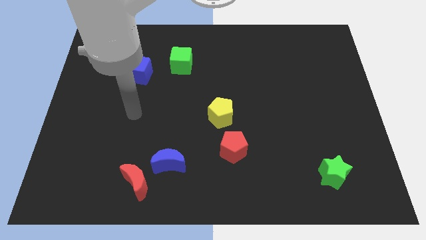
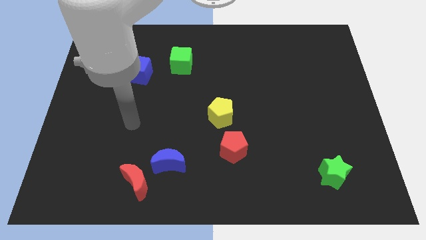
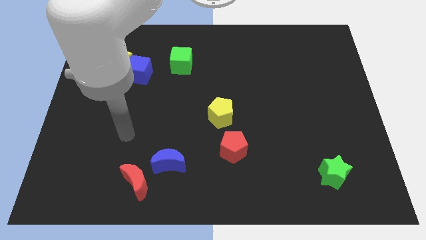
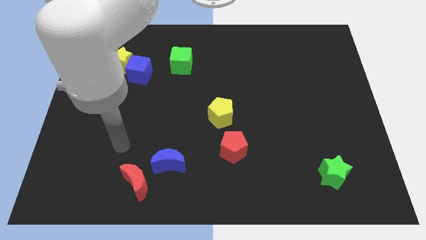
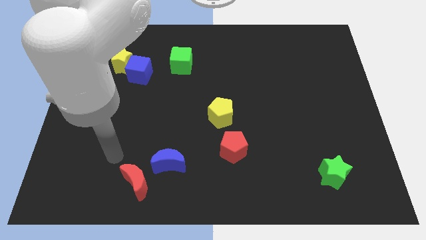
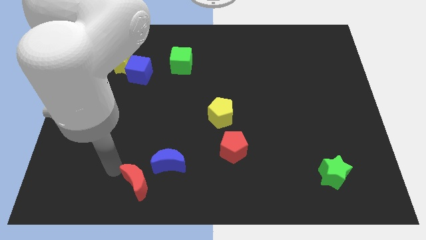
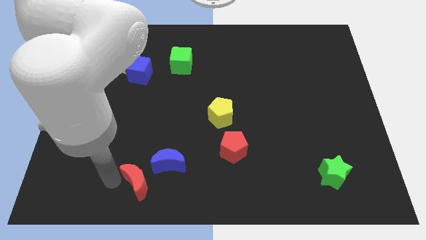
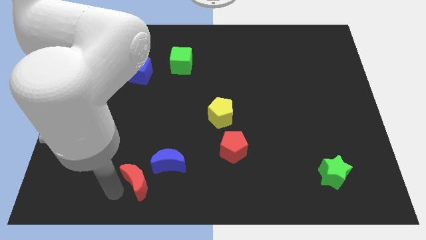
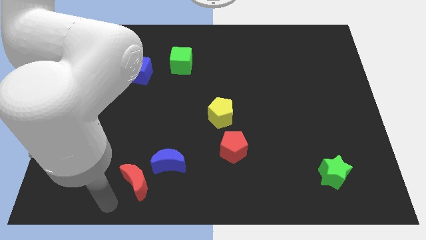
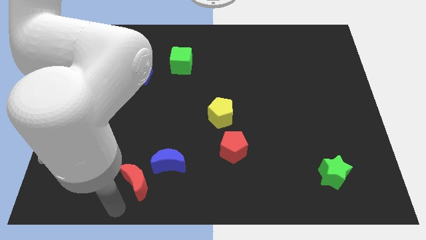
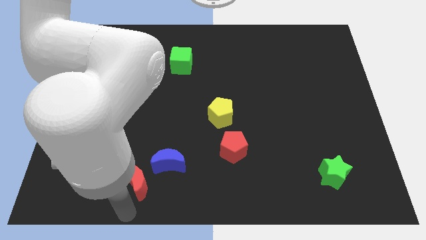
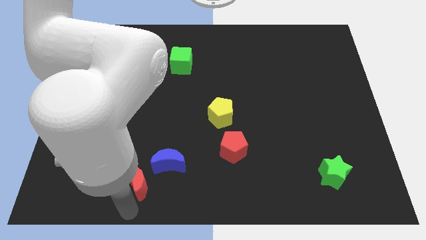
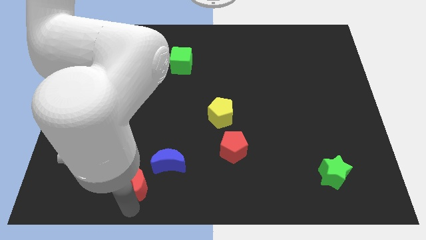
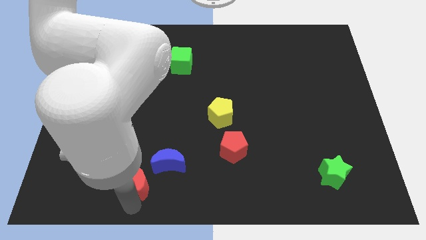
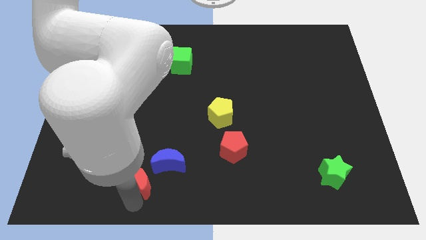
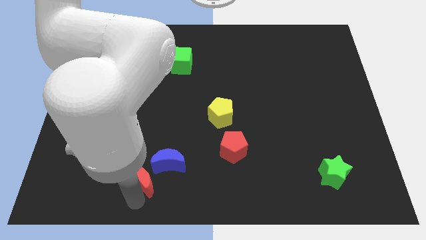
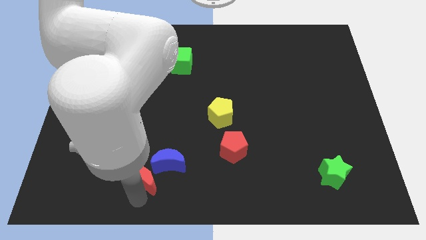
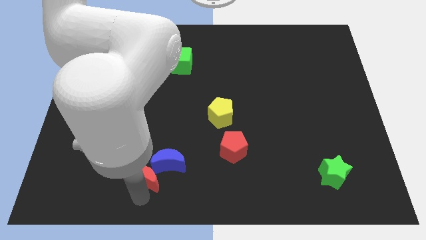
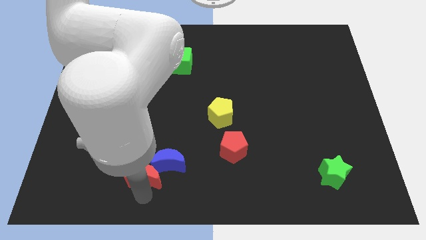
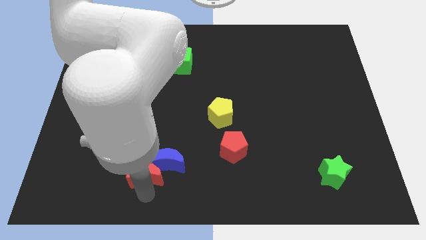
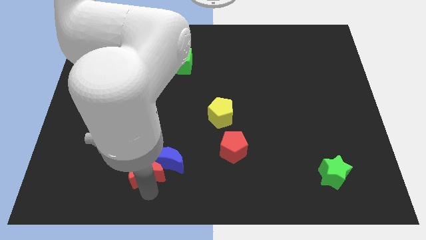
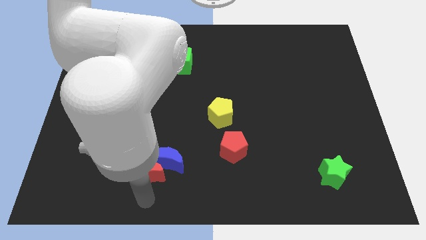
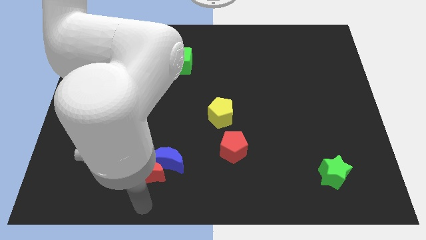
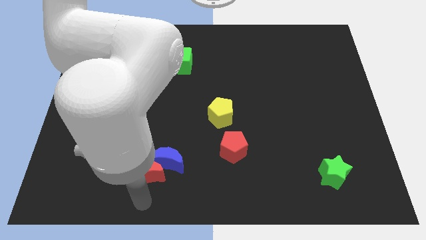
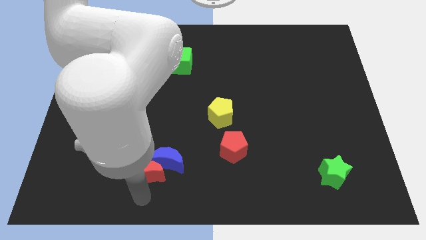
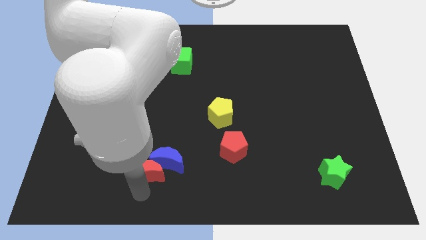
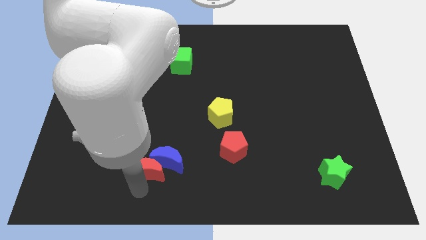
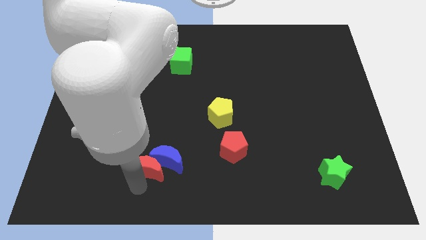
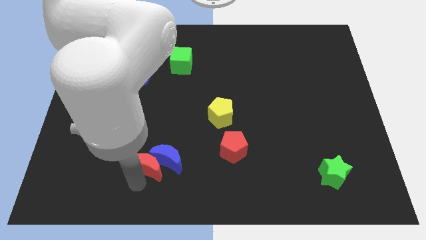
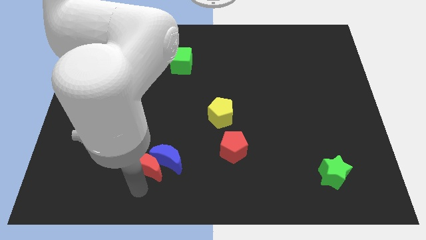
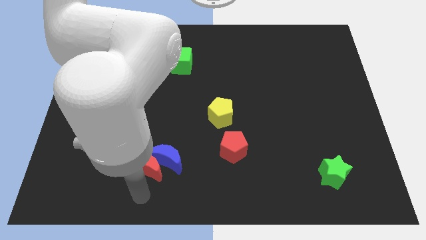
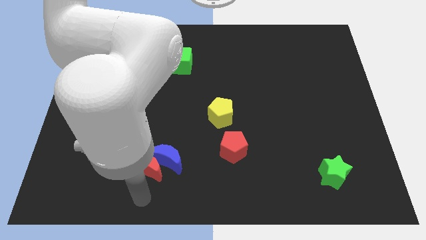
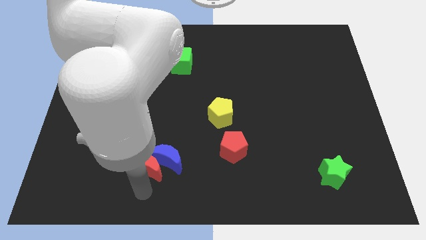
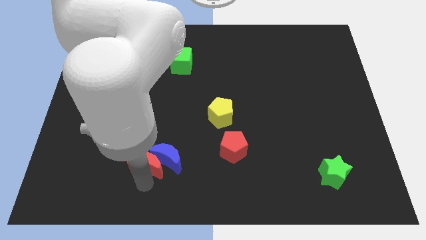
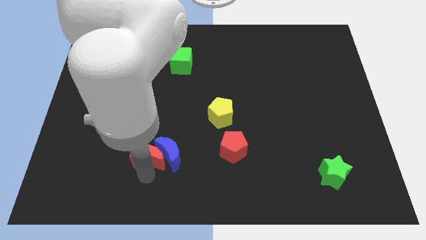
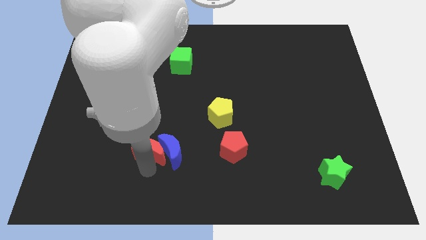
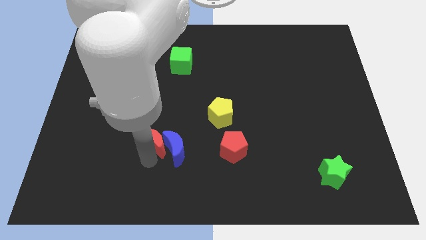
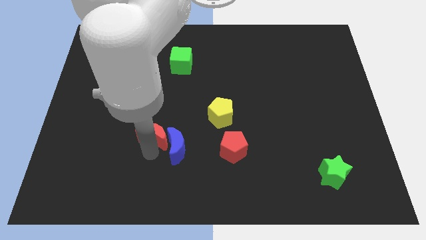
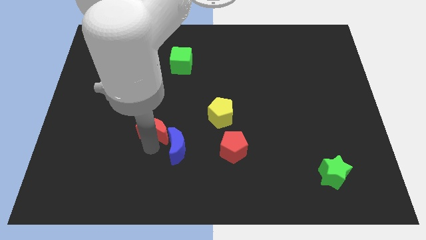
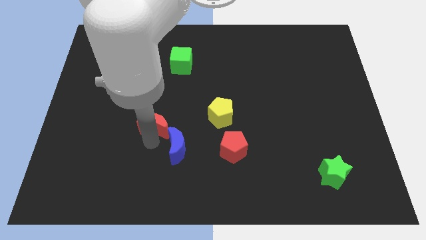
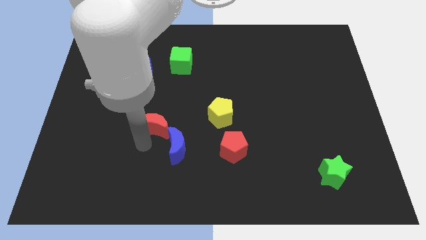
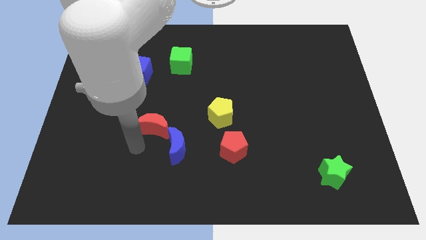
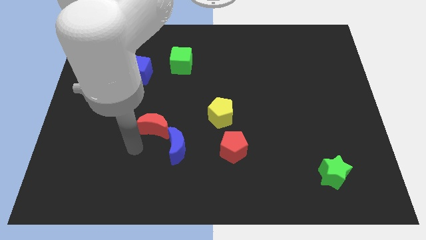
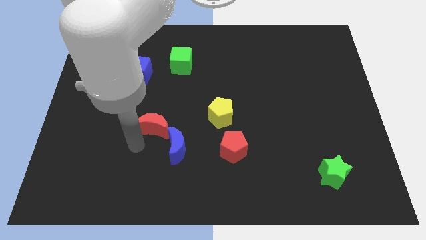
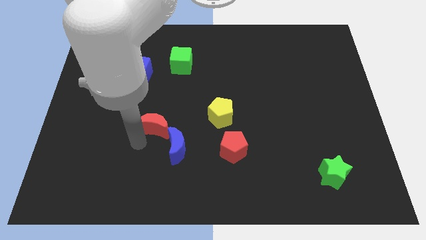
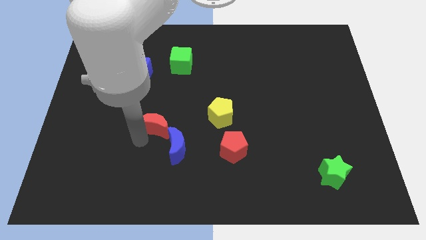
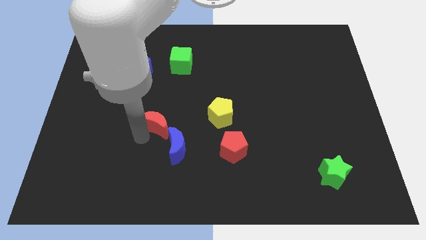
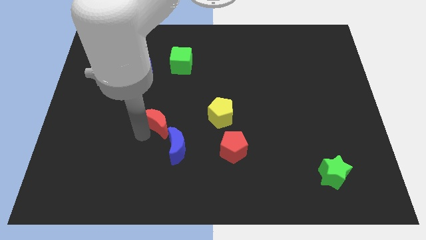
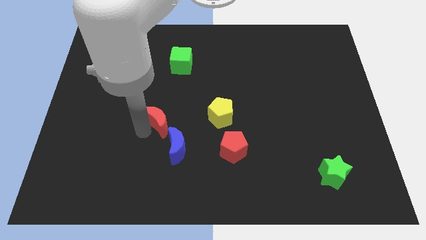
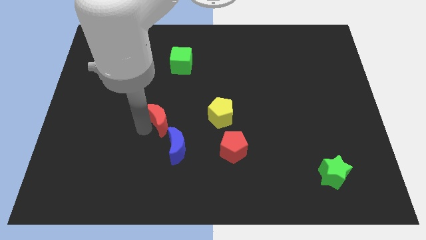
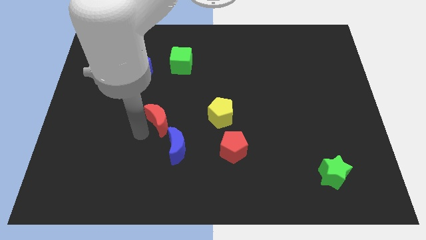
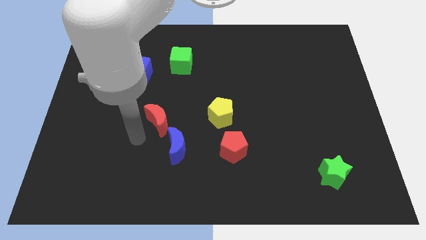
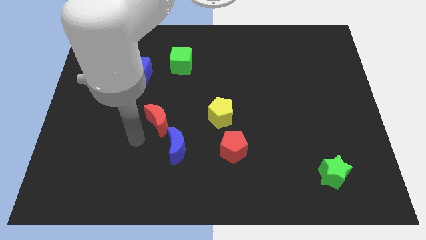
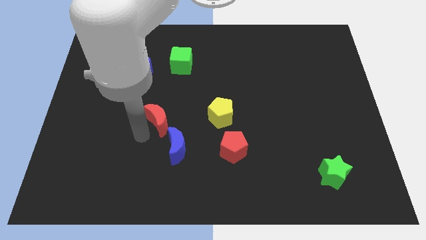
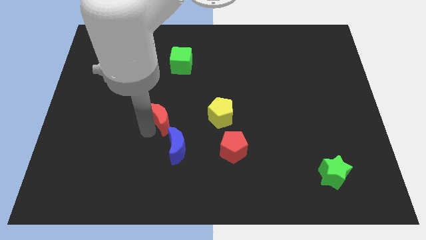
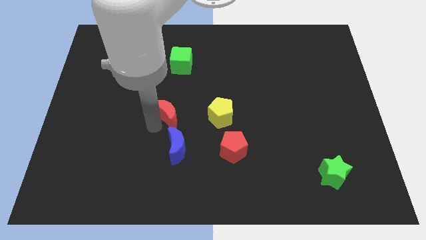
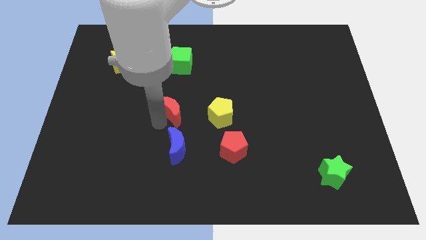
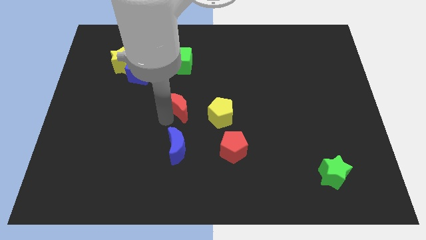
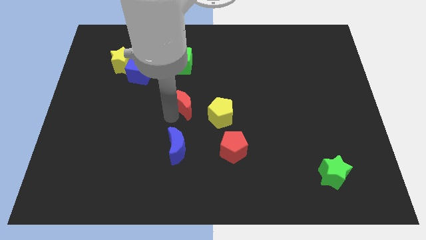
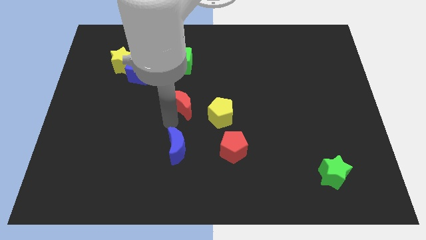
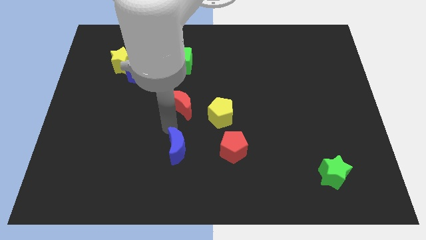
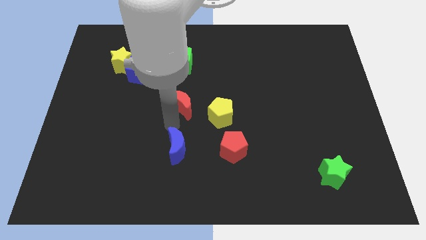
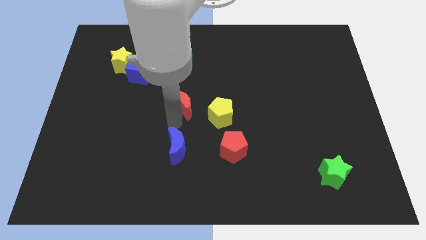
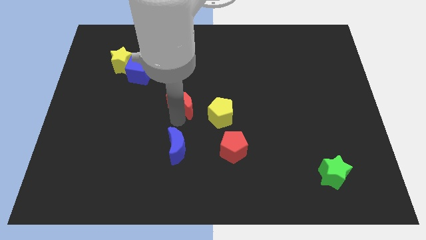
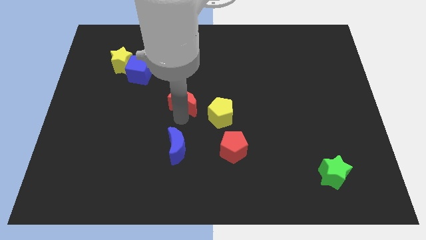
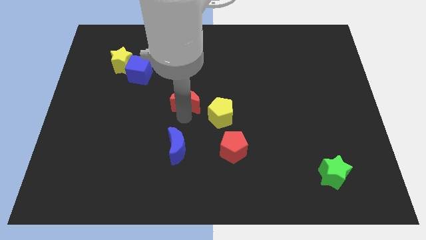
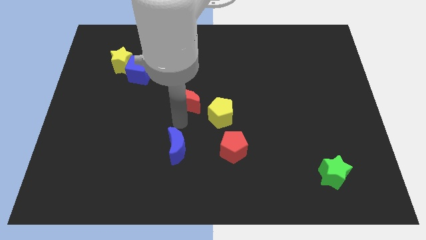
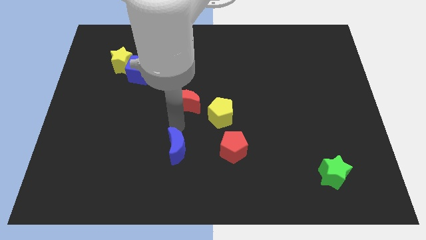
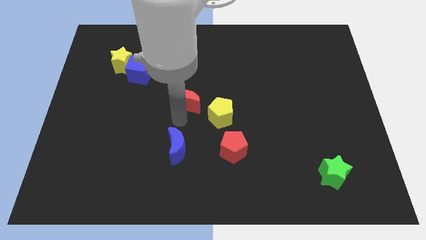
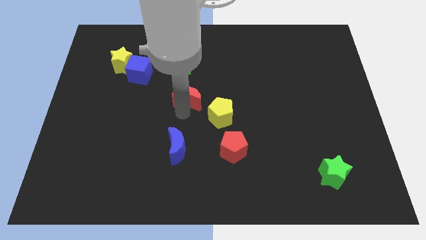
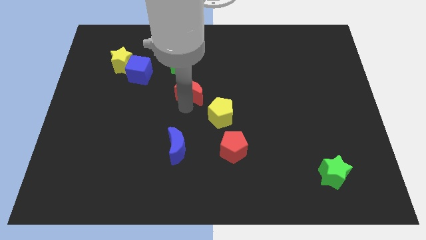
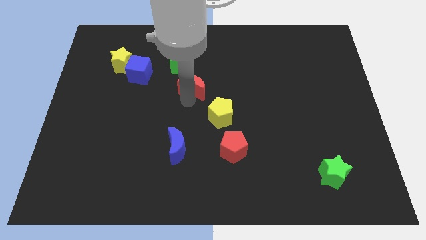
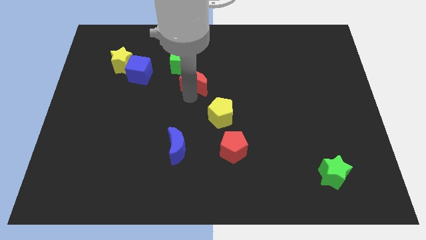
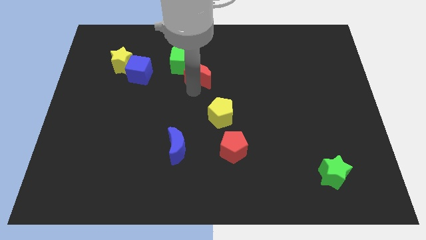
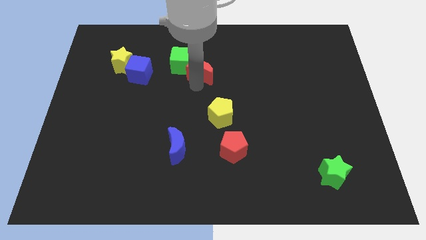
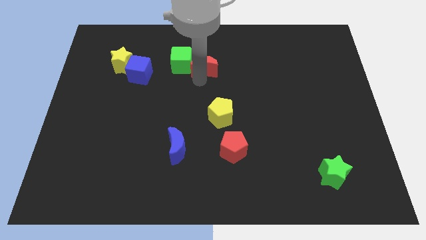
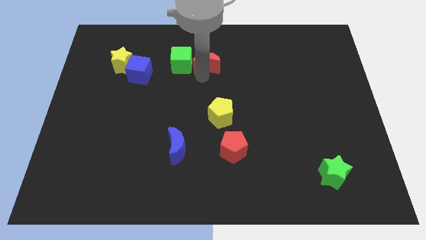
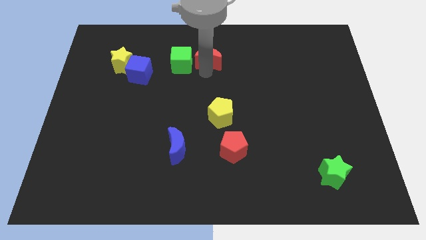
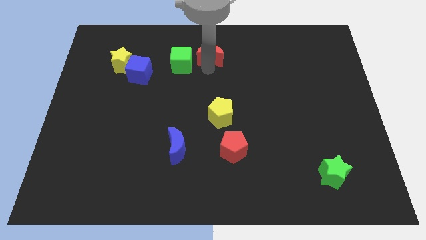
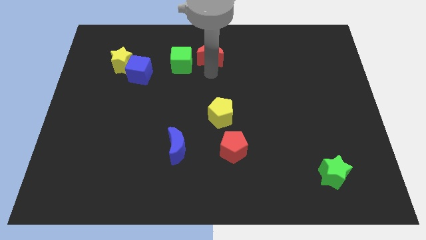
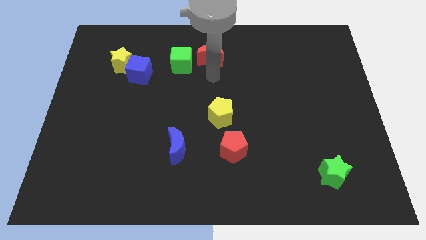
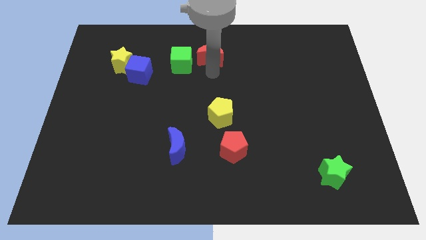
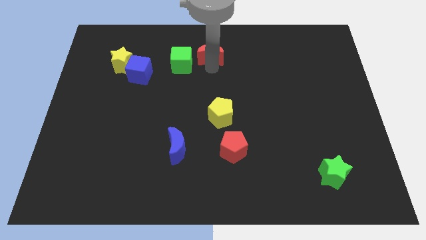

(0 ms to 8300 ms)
move the red moon to the top
